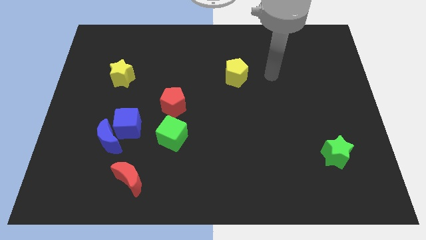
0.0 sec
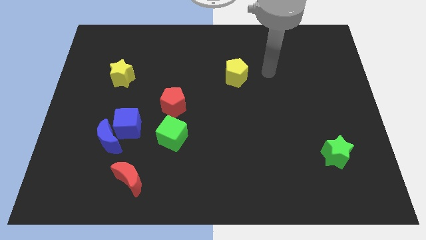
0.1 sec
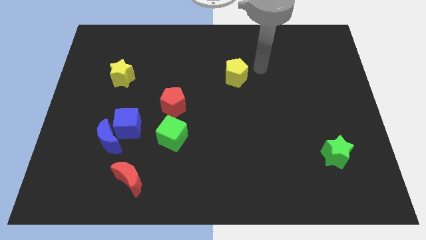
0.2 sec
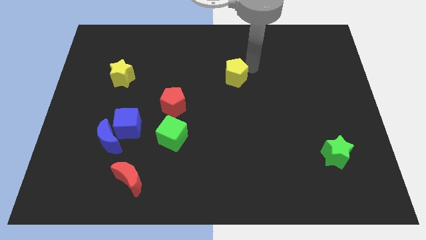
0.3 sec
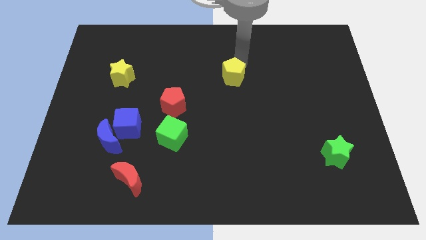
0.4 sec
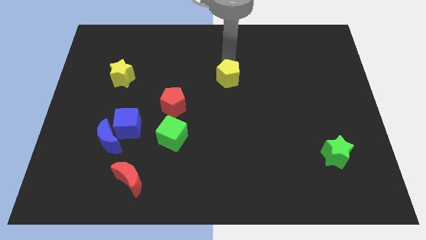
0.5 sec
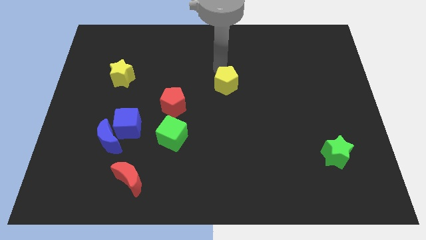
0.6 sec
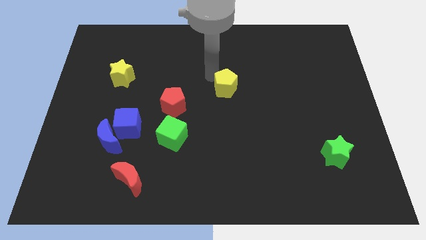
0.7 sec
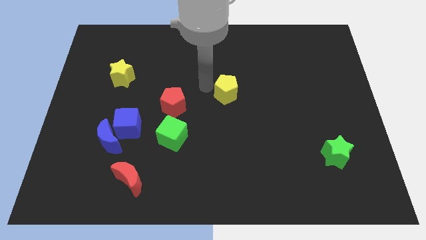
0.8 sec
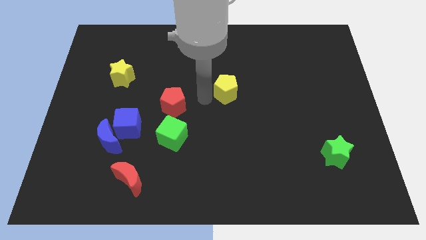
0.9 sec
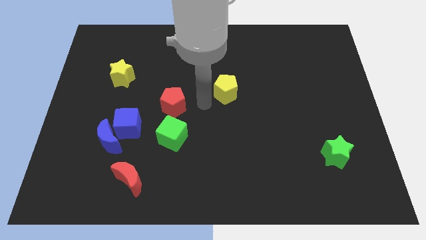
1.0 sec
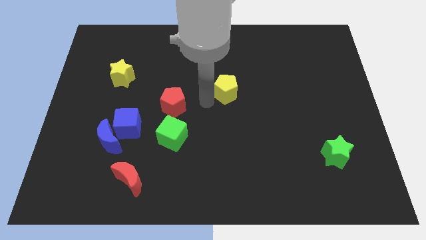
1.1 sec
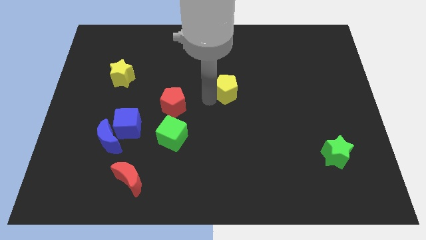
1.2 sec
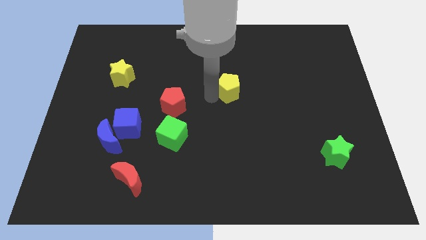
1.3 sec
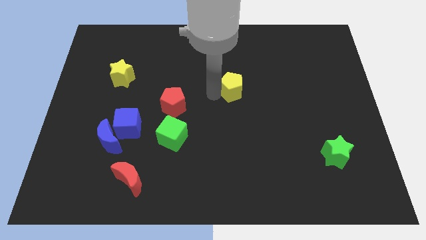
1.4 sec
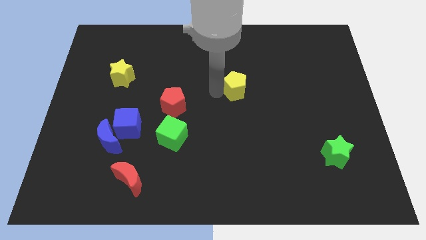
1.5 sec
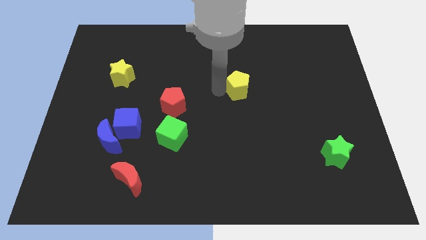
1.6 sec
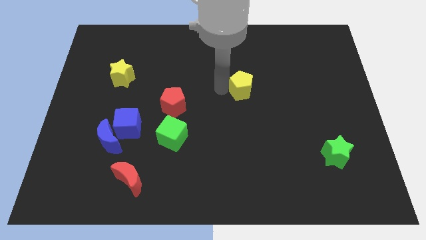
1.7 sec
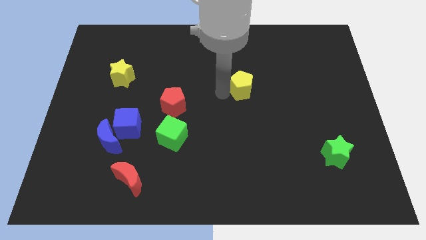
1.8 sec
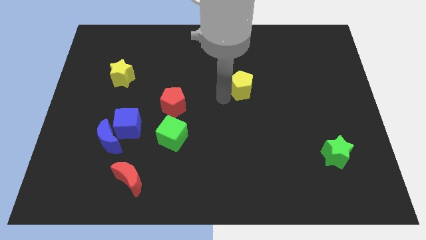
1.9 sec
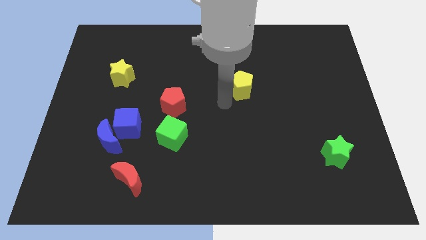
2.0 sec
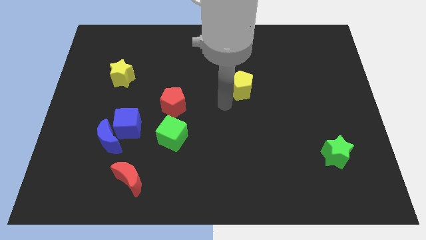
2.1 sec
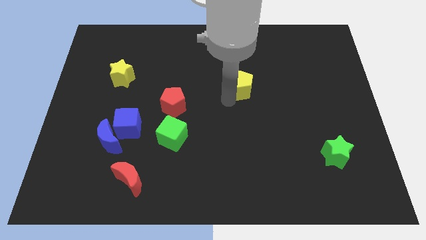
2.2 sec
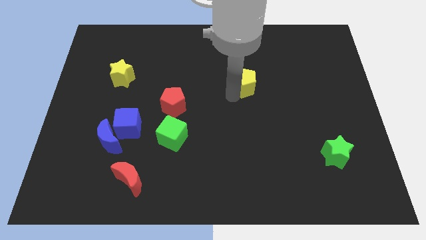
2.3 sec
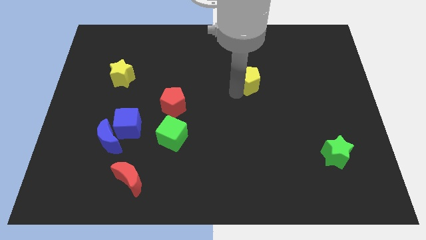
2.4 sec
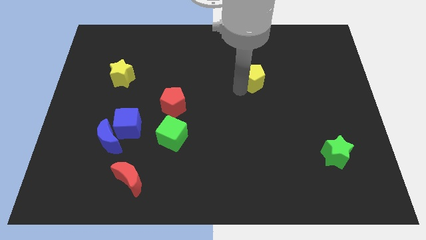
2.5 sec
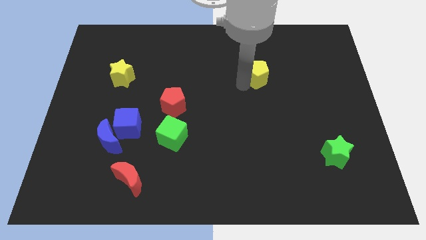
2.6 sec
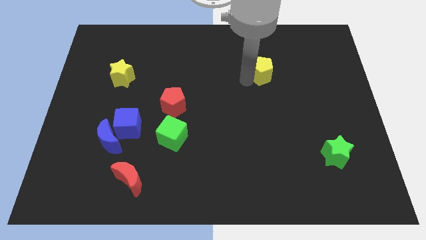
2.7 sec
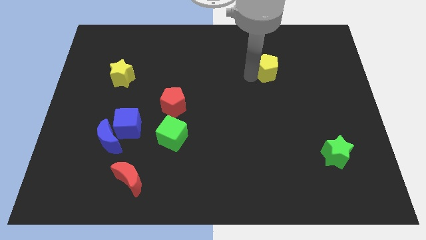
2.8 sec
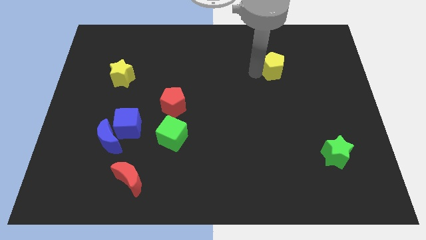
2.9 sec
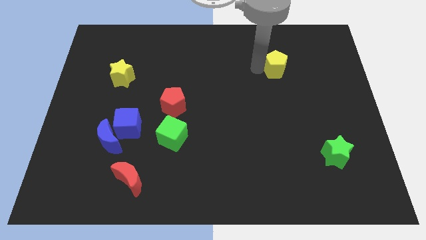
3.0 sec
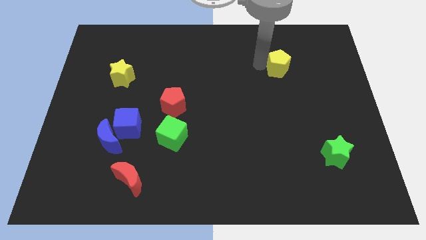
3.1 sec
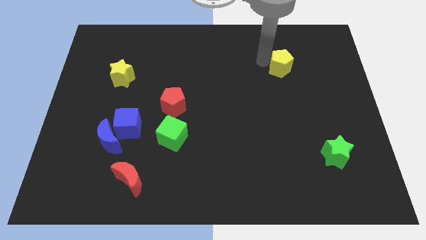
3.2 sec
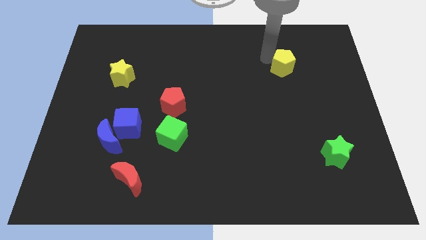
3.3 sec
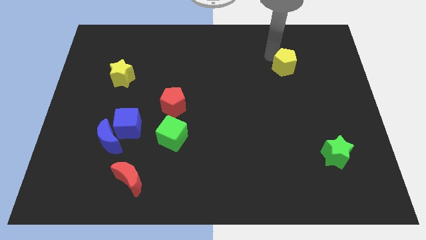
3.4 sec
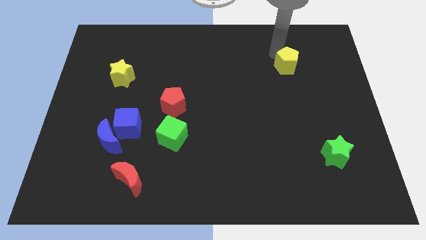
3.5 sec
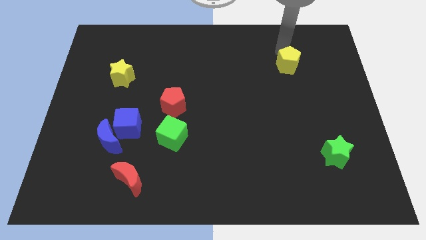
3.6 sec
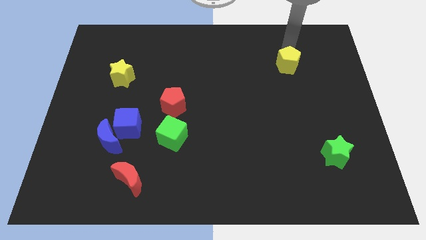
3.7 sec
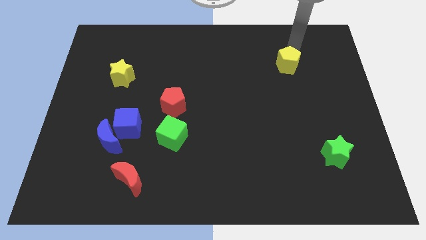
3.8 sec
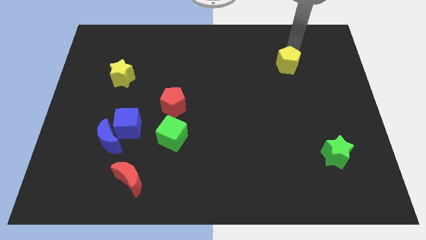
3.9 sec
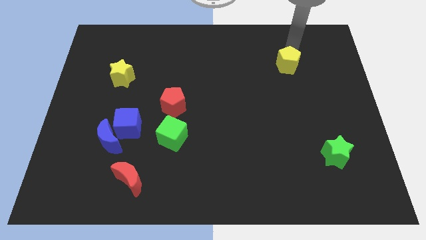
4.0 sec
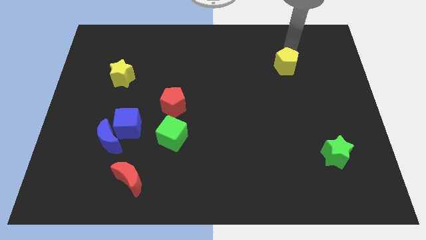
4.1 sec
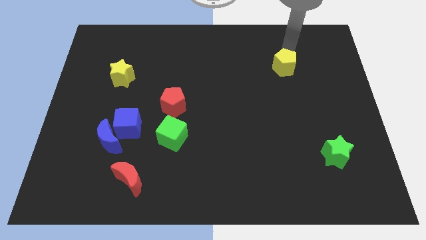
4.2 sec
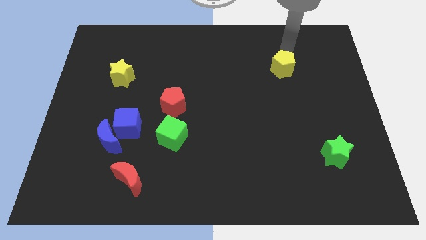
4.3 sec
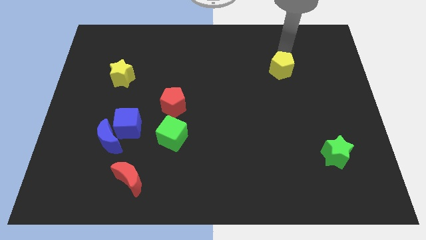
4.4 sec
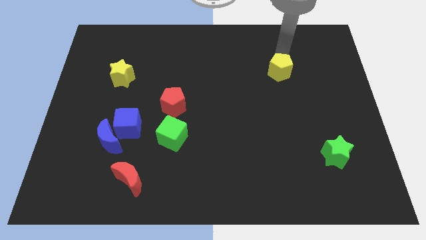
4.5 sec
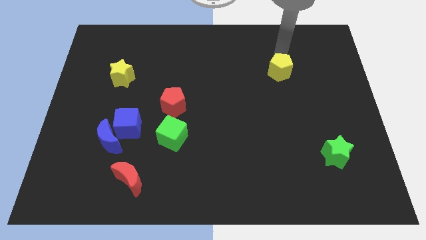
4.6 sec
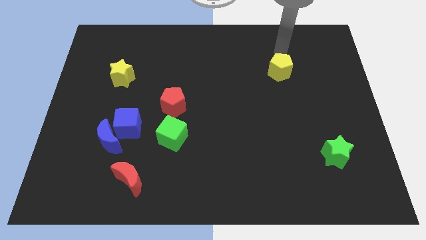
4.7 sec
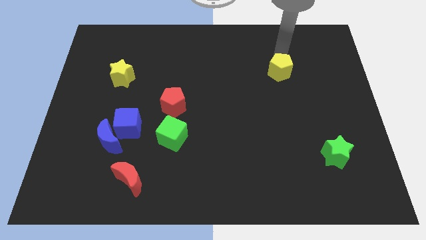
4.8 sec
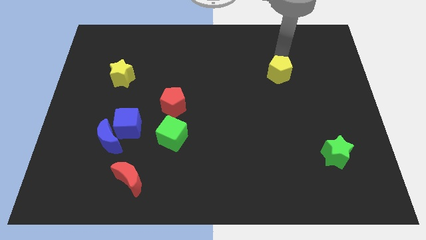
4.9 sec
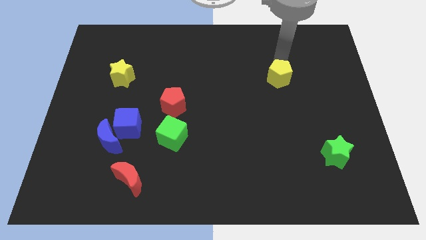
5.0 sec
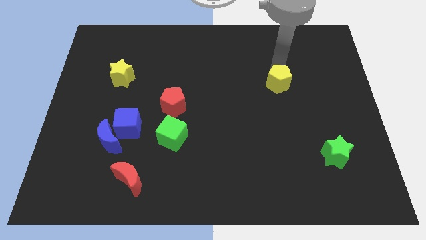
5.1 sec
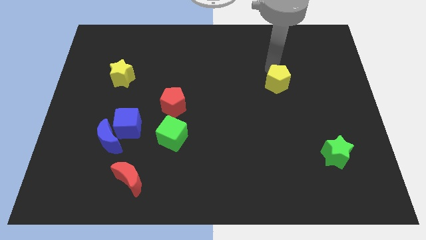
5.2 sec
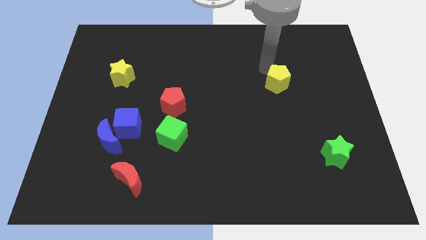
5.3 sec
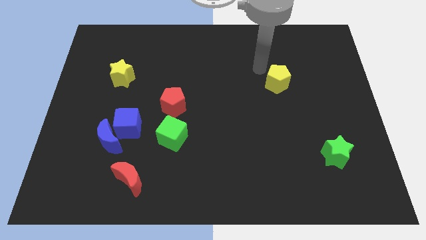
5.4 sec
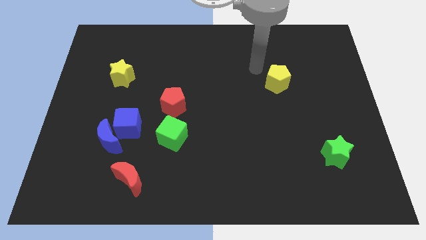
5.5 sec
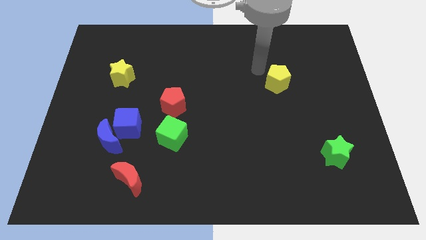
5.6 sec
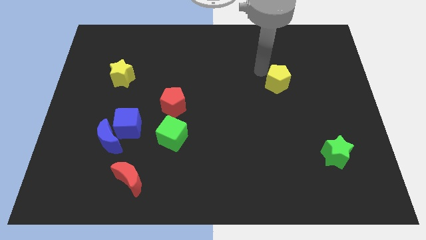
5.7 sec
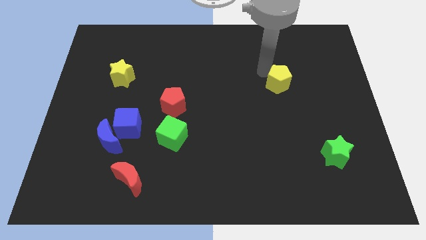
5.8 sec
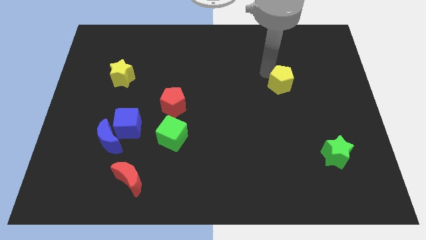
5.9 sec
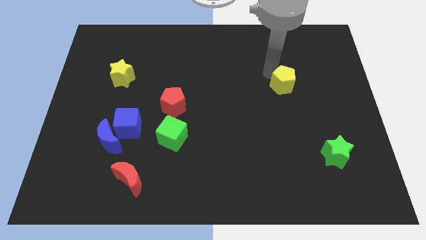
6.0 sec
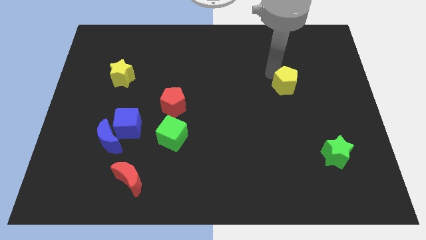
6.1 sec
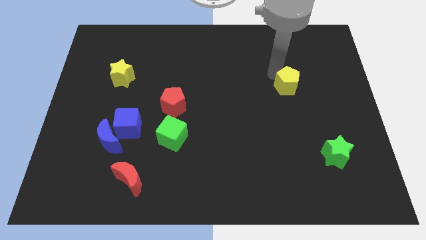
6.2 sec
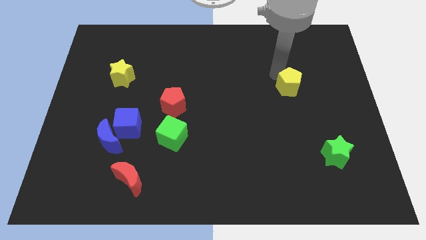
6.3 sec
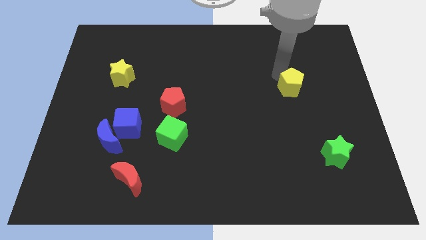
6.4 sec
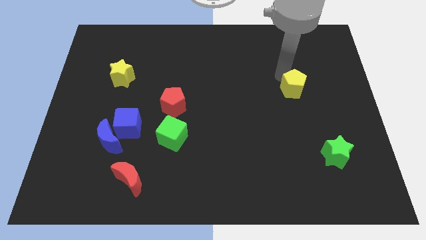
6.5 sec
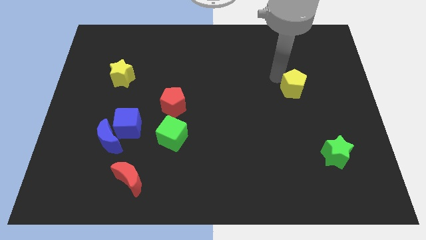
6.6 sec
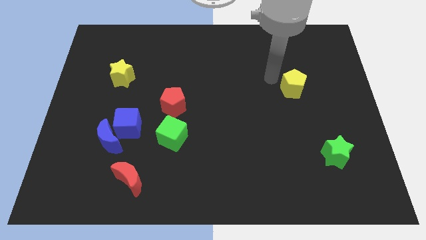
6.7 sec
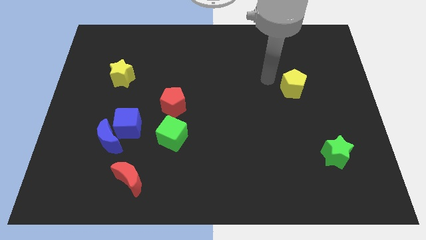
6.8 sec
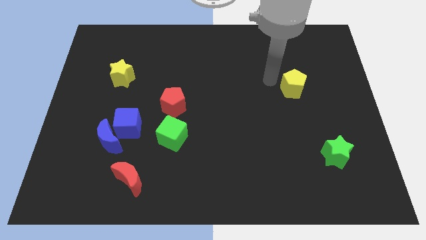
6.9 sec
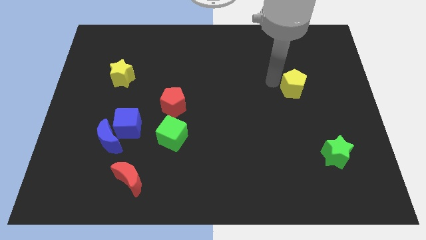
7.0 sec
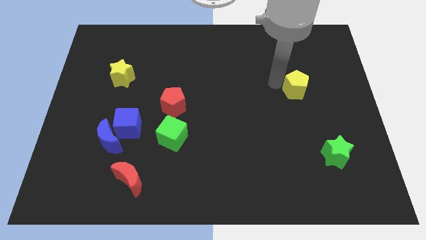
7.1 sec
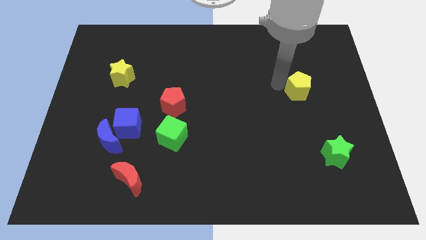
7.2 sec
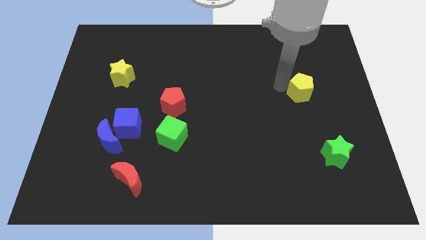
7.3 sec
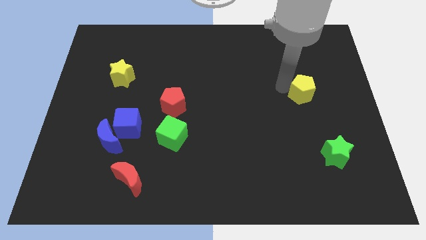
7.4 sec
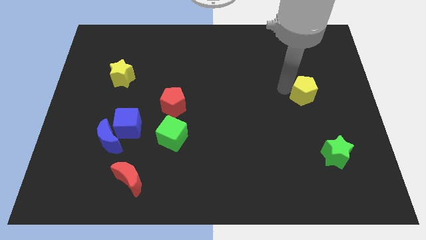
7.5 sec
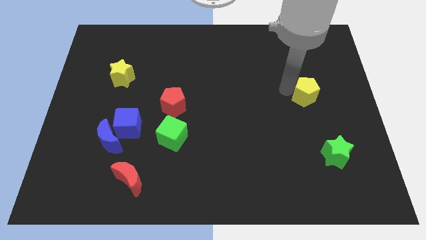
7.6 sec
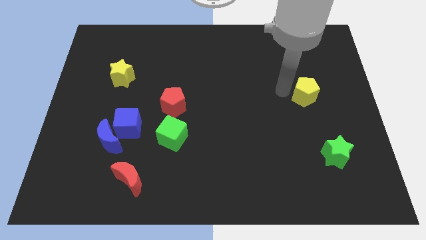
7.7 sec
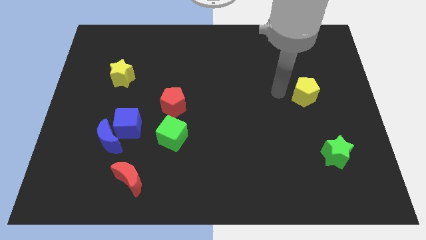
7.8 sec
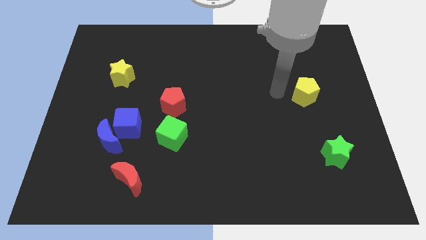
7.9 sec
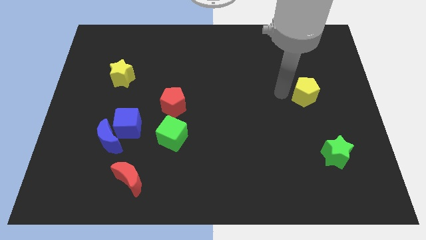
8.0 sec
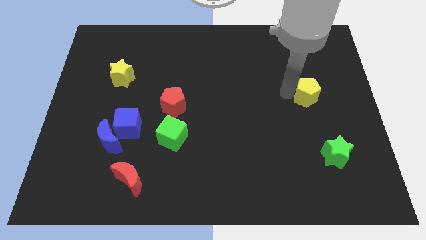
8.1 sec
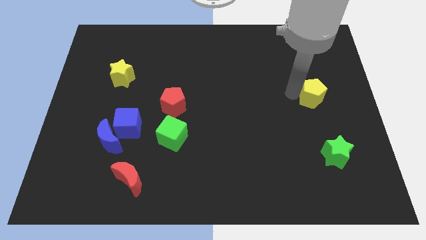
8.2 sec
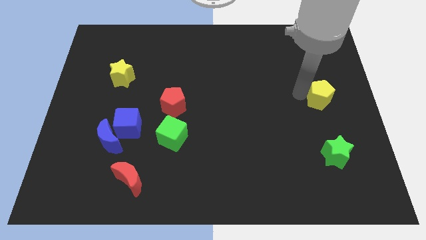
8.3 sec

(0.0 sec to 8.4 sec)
move the yellow pentagon to the center right
